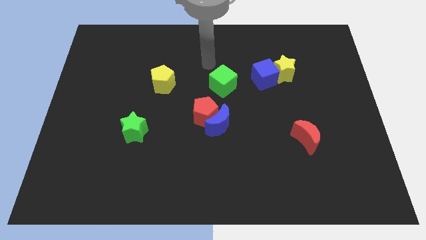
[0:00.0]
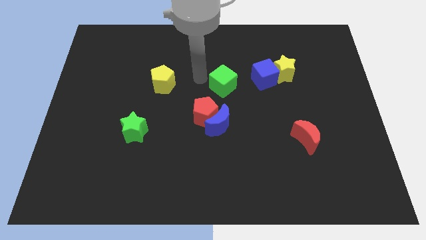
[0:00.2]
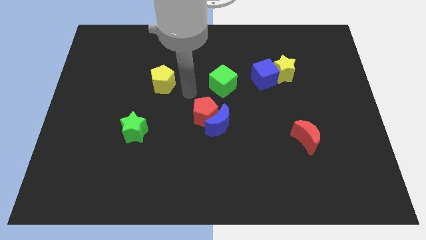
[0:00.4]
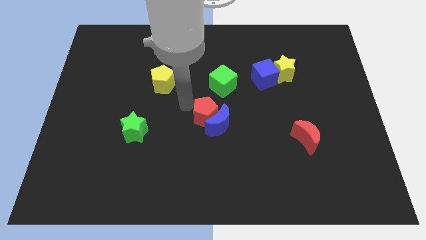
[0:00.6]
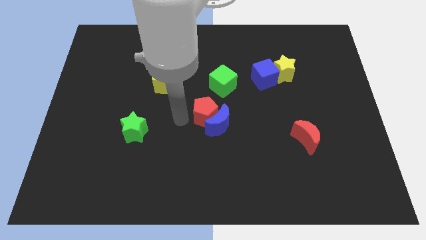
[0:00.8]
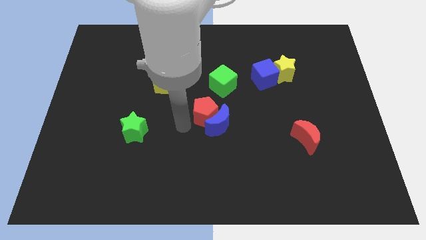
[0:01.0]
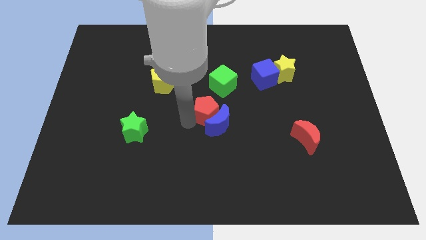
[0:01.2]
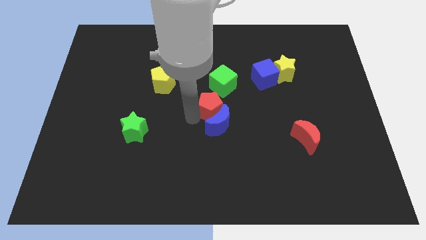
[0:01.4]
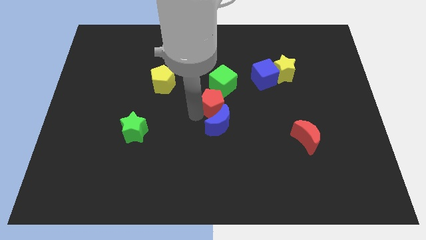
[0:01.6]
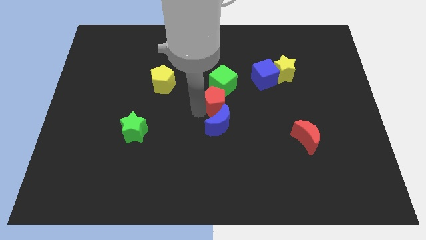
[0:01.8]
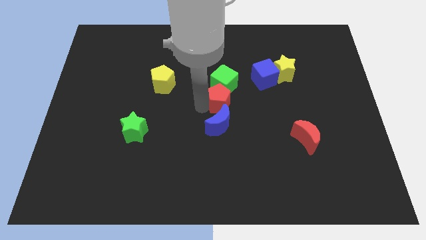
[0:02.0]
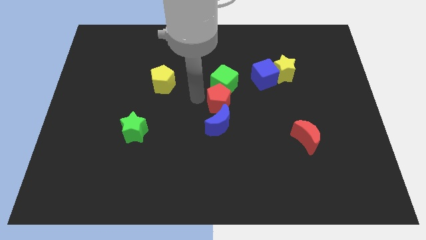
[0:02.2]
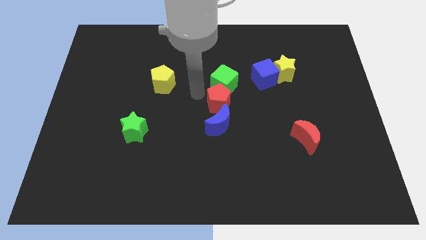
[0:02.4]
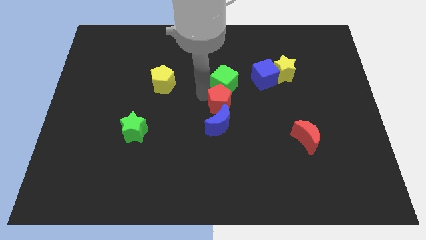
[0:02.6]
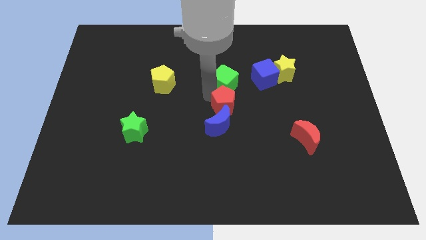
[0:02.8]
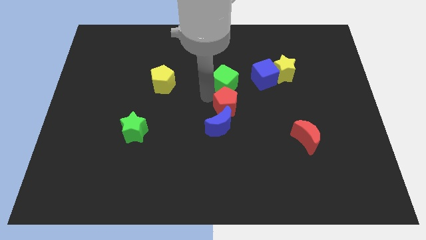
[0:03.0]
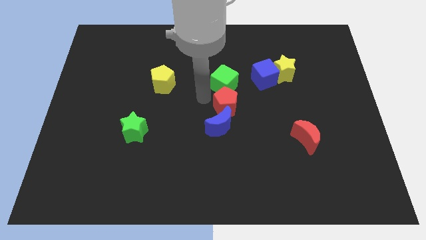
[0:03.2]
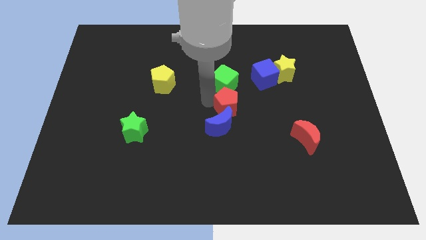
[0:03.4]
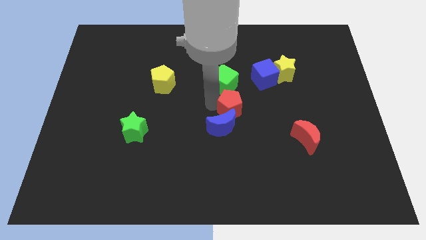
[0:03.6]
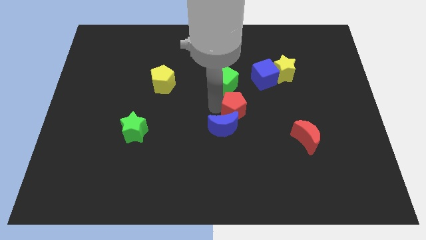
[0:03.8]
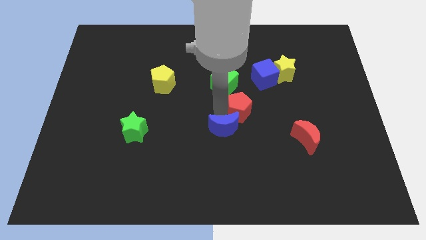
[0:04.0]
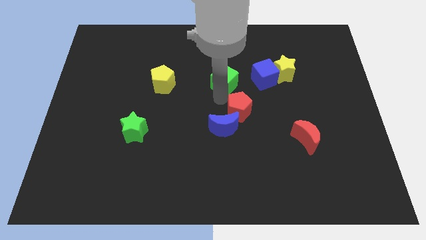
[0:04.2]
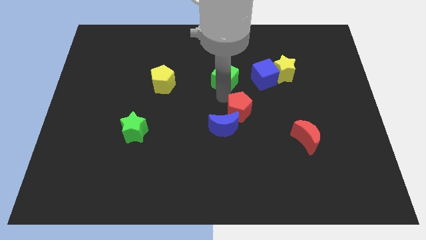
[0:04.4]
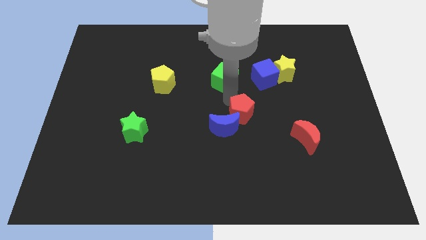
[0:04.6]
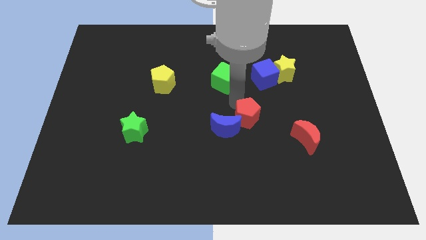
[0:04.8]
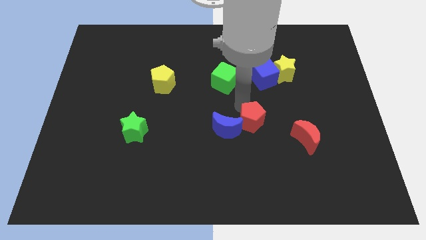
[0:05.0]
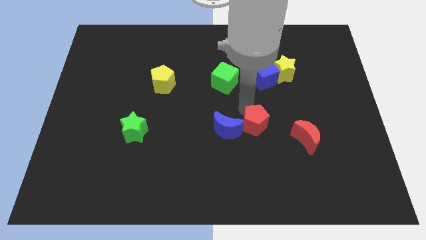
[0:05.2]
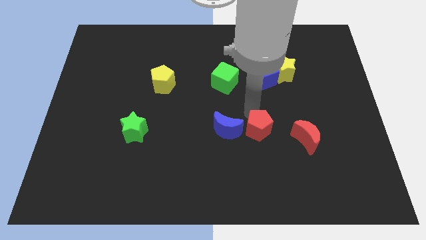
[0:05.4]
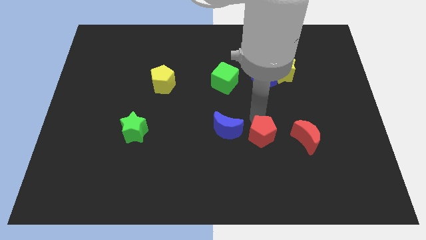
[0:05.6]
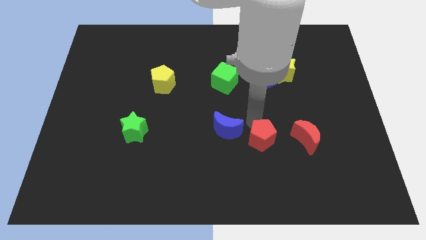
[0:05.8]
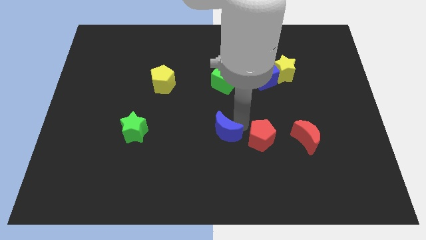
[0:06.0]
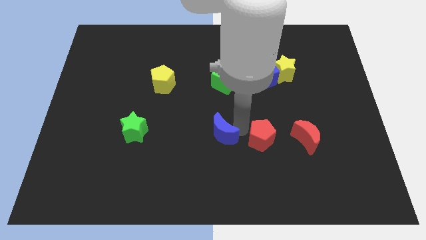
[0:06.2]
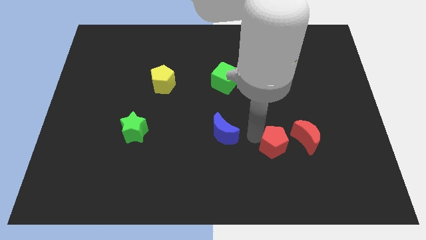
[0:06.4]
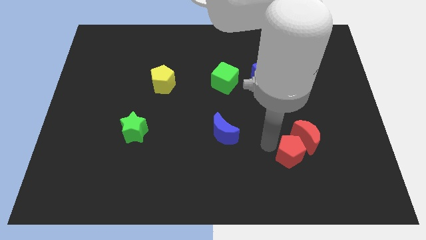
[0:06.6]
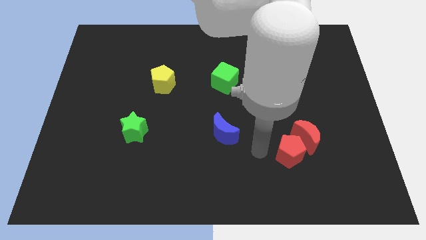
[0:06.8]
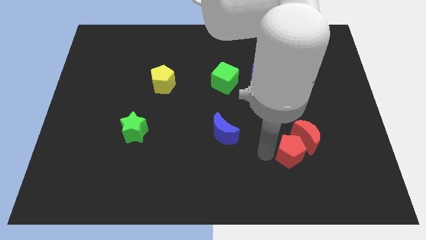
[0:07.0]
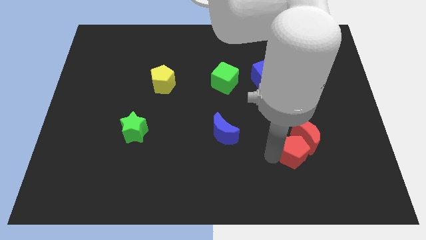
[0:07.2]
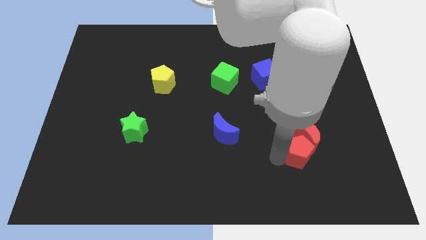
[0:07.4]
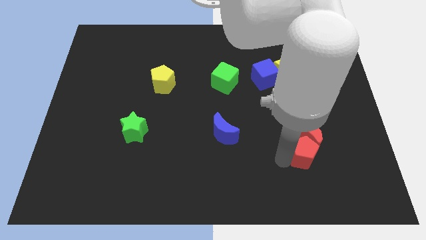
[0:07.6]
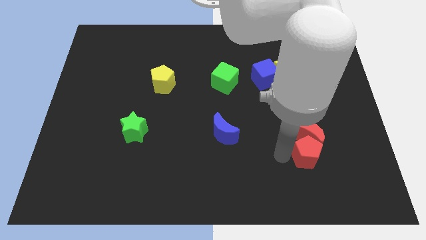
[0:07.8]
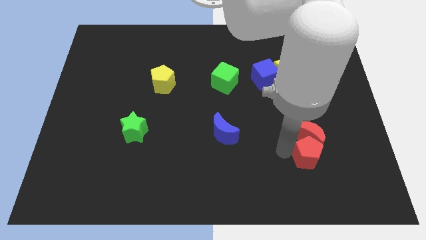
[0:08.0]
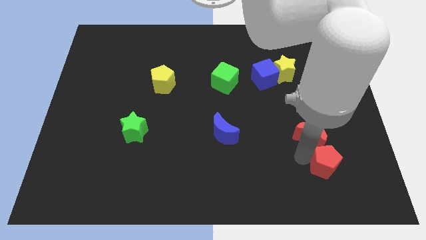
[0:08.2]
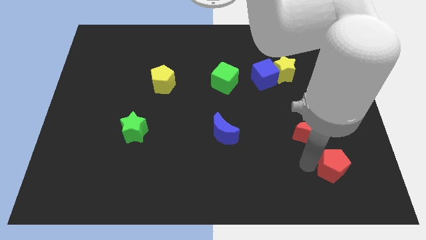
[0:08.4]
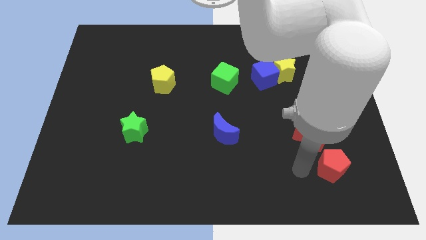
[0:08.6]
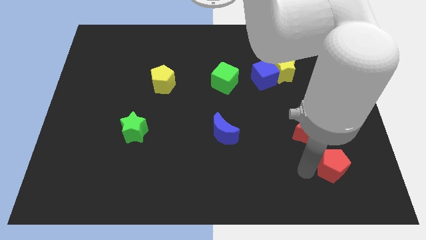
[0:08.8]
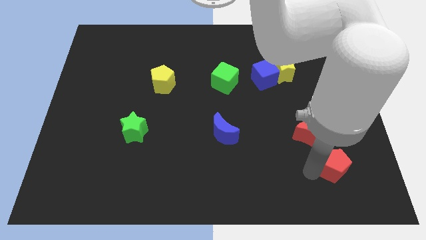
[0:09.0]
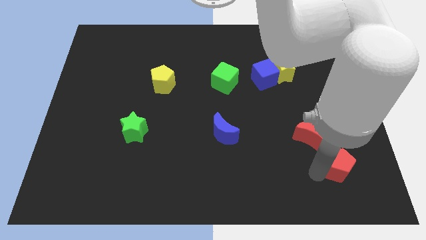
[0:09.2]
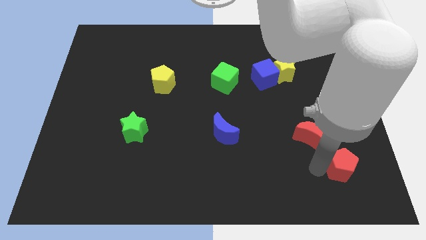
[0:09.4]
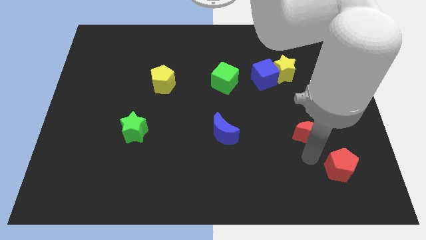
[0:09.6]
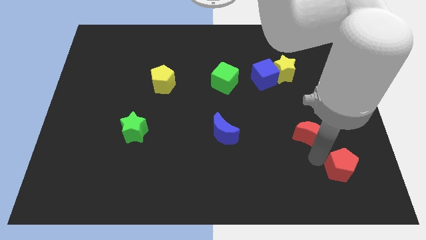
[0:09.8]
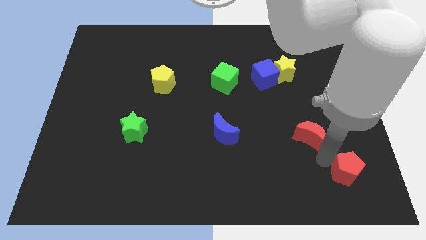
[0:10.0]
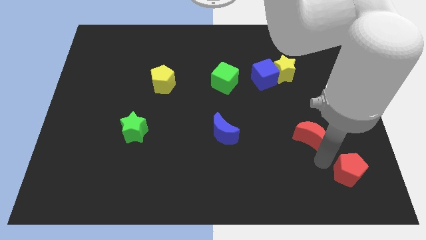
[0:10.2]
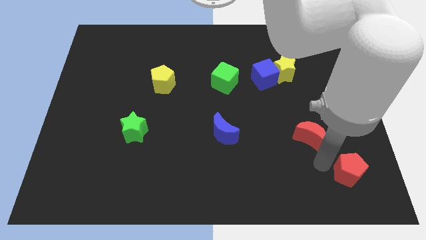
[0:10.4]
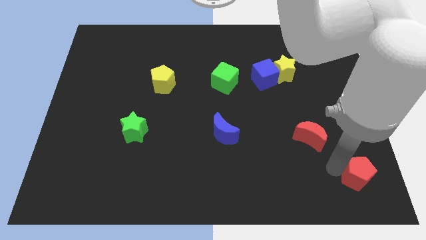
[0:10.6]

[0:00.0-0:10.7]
put the red pentagon to the lower right corner

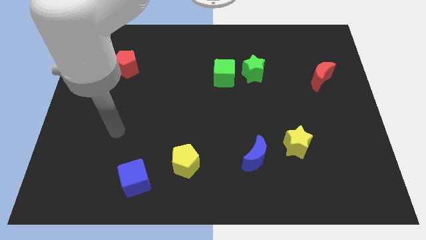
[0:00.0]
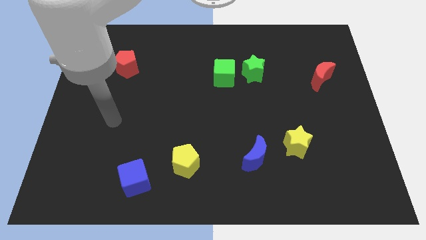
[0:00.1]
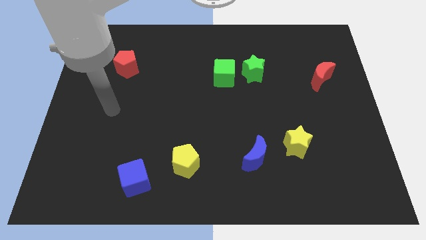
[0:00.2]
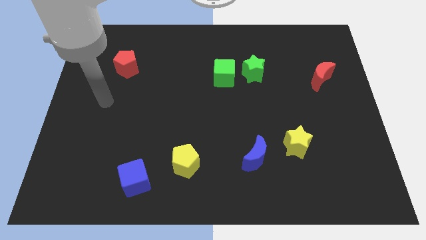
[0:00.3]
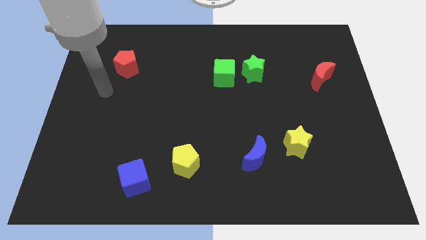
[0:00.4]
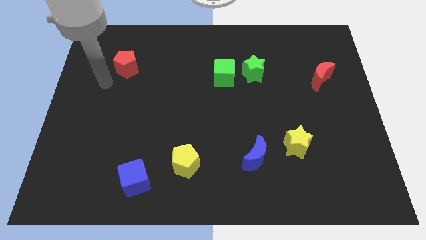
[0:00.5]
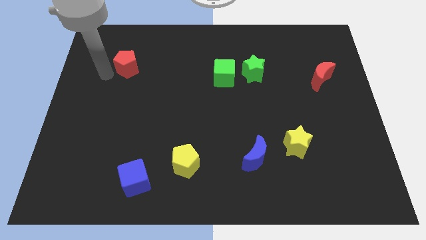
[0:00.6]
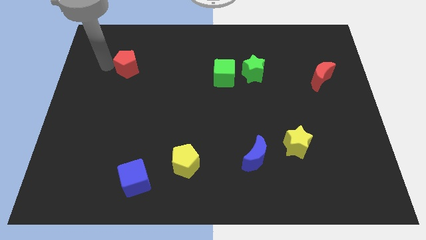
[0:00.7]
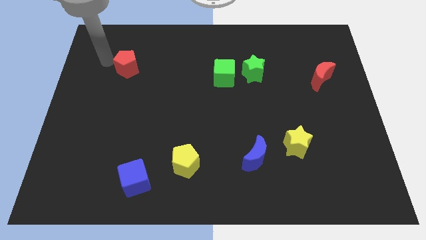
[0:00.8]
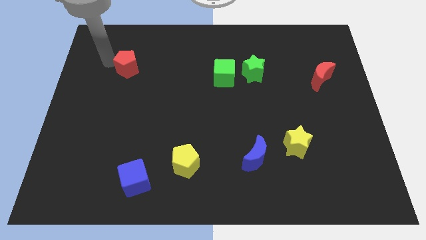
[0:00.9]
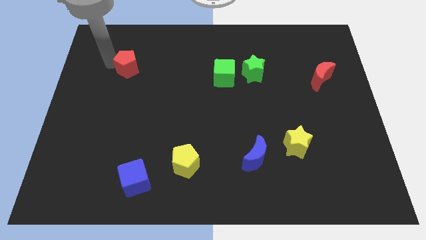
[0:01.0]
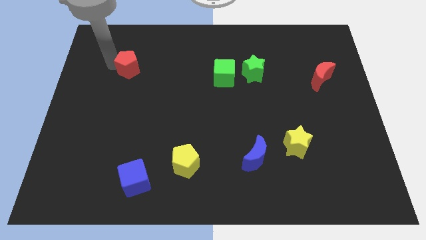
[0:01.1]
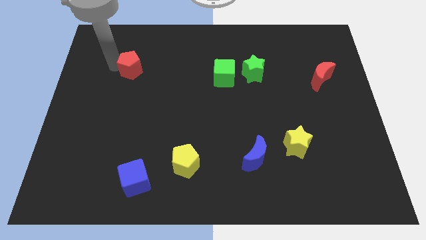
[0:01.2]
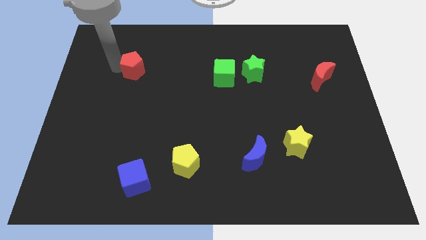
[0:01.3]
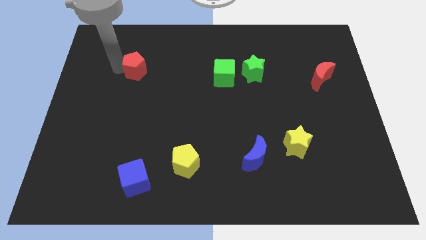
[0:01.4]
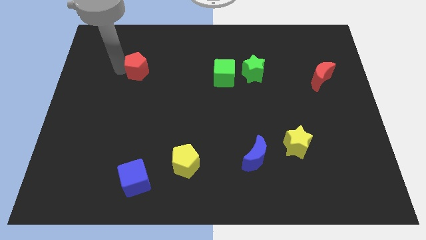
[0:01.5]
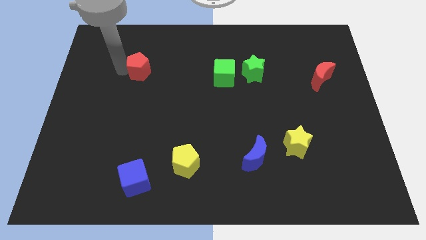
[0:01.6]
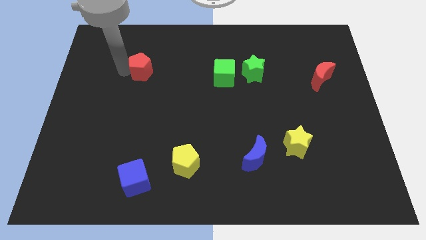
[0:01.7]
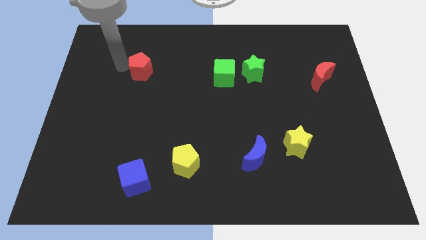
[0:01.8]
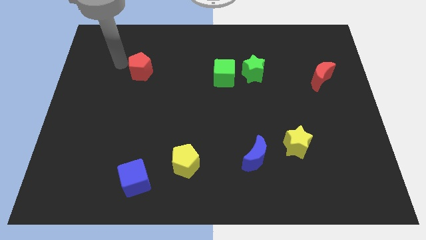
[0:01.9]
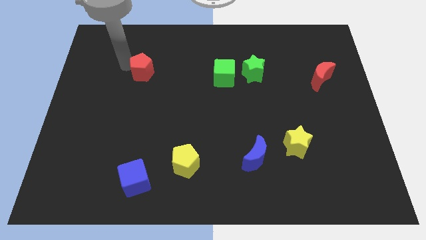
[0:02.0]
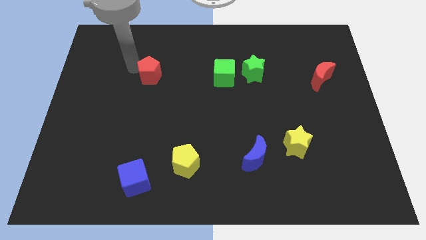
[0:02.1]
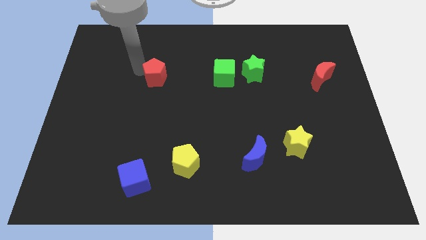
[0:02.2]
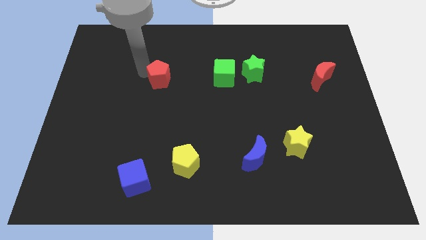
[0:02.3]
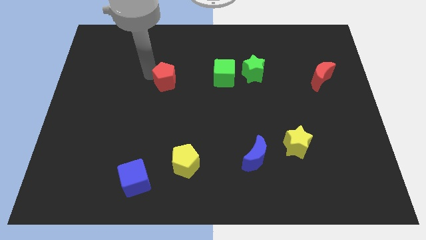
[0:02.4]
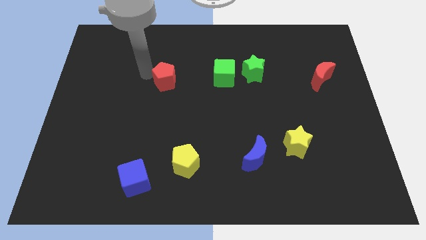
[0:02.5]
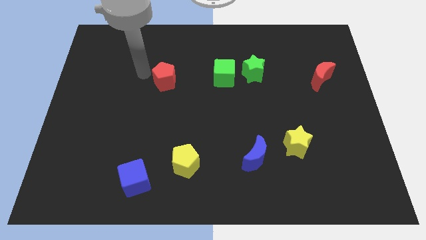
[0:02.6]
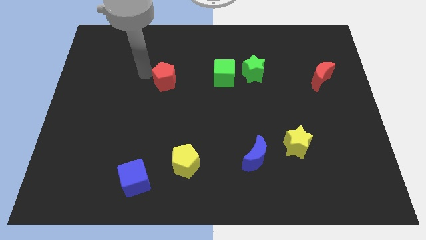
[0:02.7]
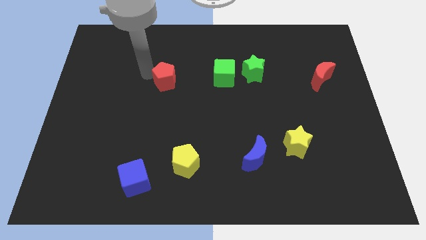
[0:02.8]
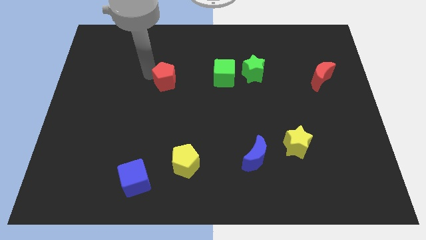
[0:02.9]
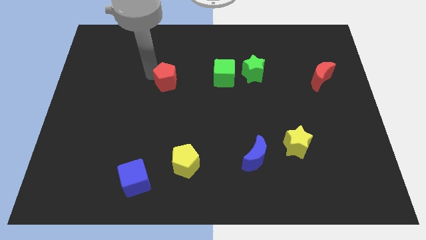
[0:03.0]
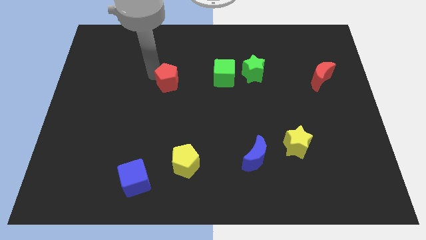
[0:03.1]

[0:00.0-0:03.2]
move the red pentagon to the middle of the board

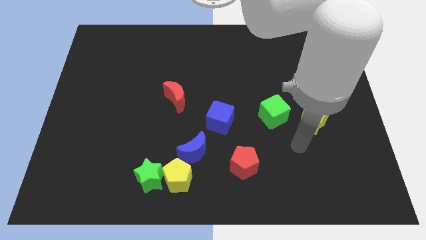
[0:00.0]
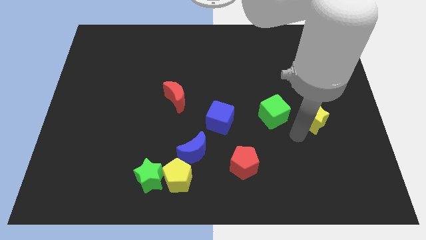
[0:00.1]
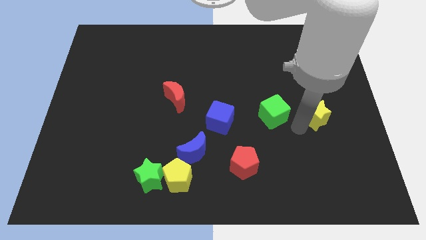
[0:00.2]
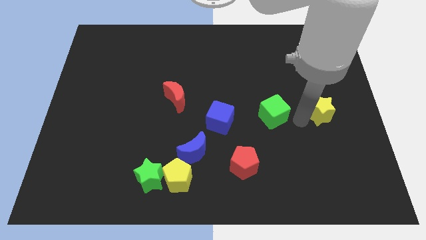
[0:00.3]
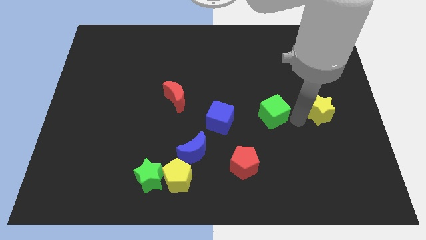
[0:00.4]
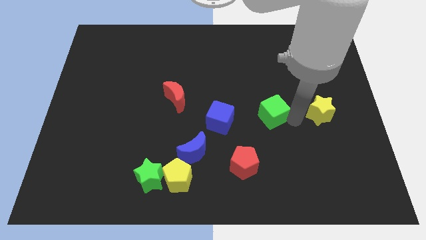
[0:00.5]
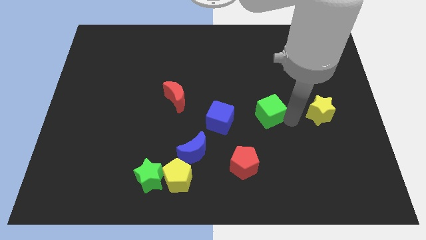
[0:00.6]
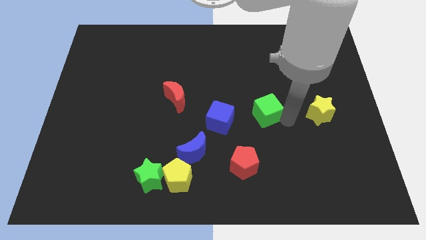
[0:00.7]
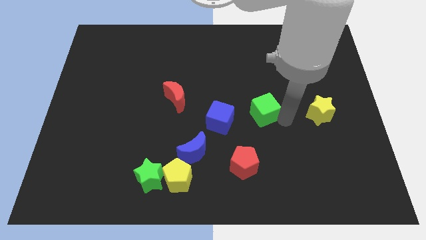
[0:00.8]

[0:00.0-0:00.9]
push the green cube to the center
